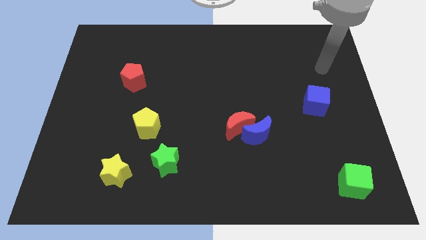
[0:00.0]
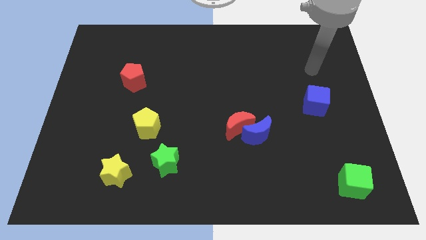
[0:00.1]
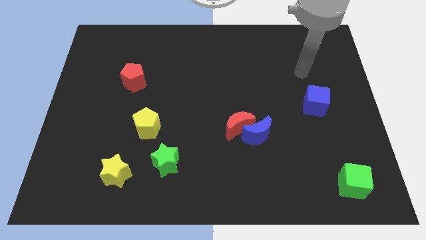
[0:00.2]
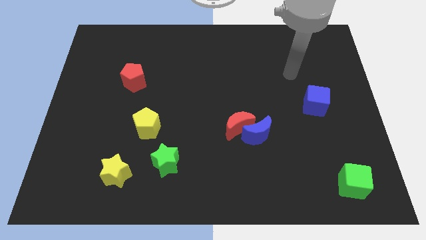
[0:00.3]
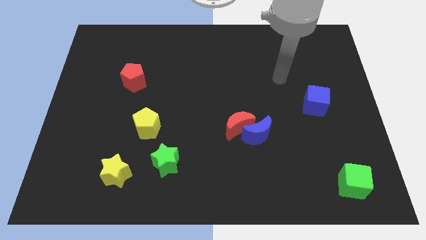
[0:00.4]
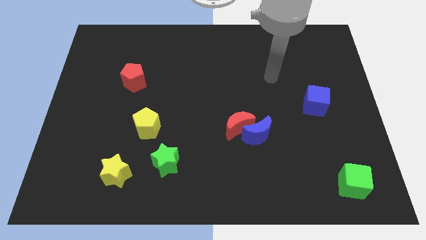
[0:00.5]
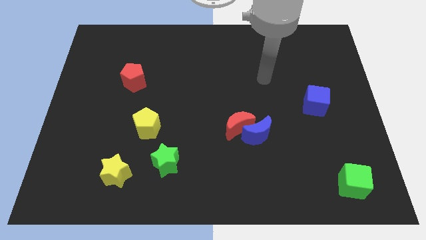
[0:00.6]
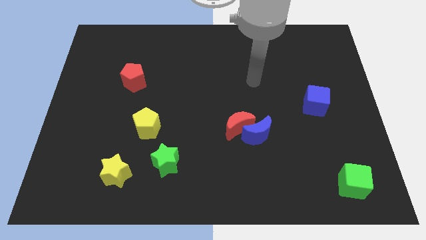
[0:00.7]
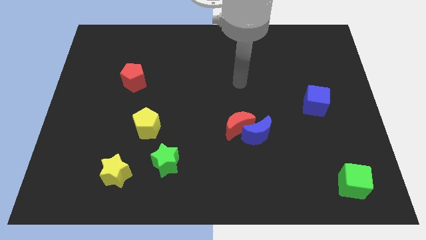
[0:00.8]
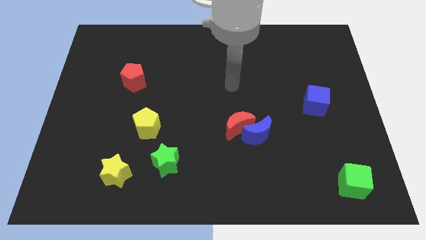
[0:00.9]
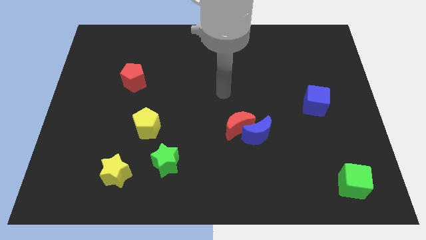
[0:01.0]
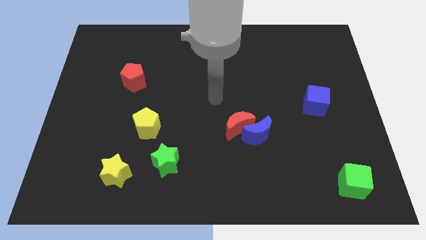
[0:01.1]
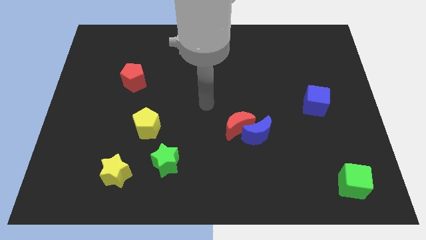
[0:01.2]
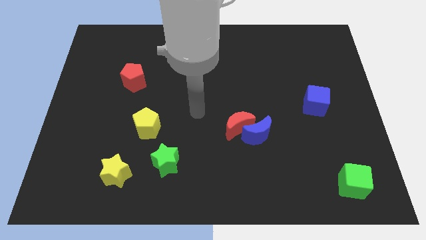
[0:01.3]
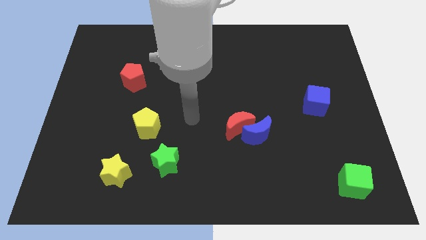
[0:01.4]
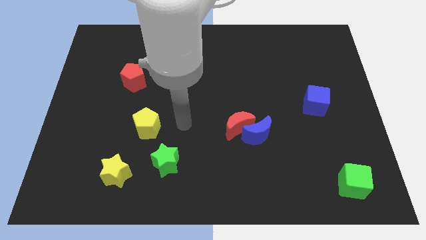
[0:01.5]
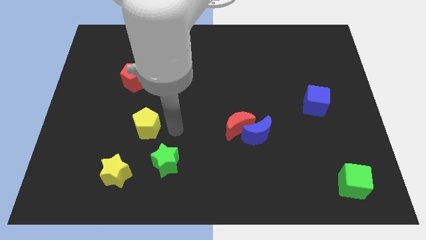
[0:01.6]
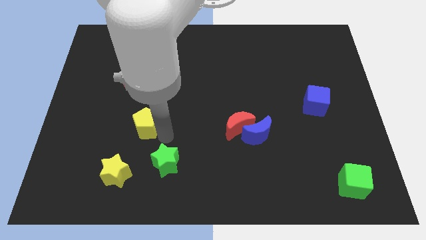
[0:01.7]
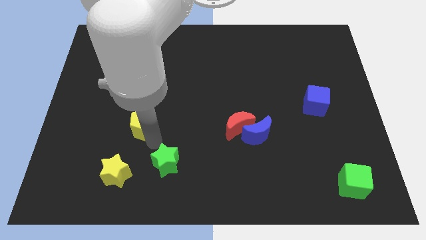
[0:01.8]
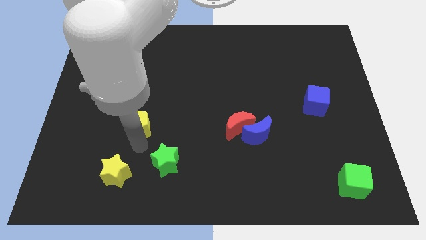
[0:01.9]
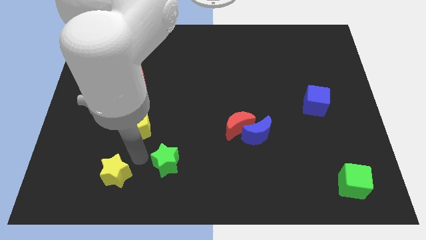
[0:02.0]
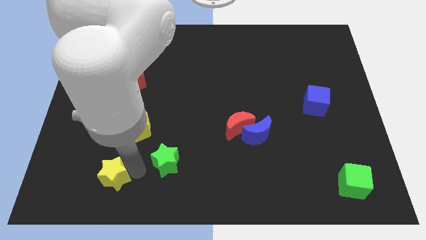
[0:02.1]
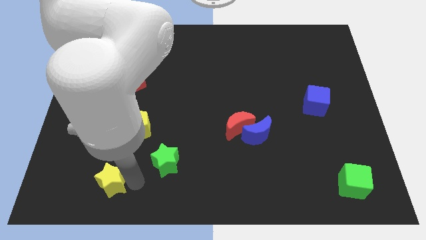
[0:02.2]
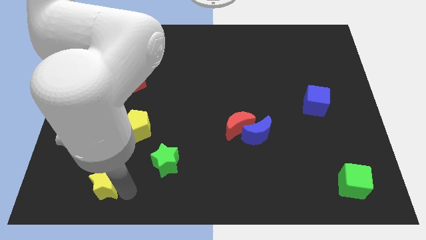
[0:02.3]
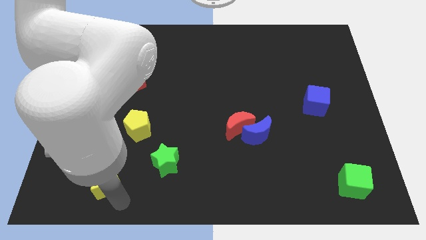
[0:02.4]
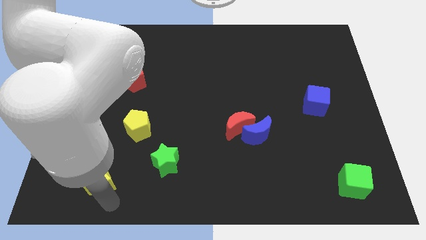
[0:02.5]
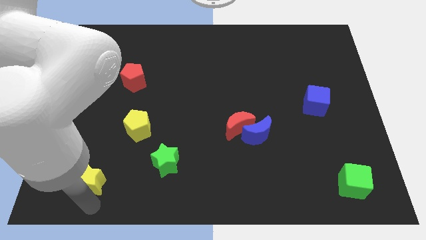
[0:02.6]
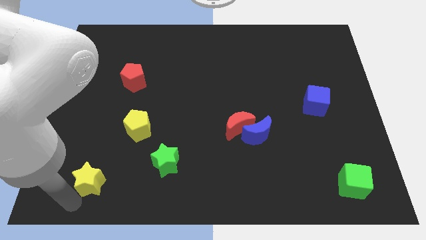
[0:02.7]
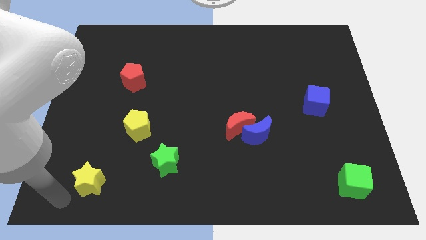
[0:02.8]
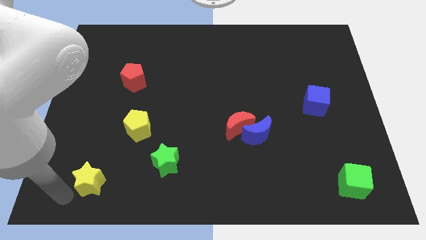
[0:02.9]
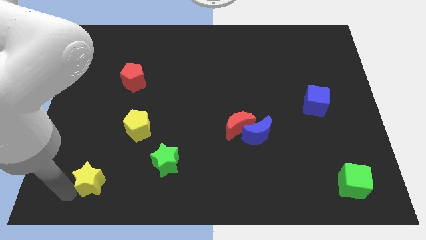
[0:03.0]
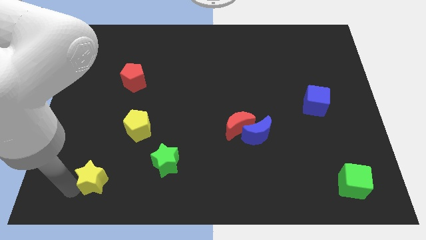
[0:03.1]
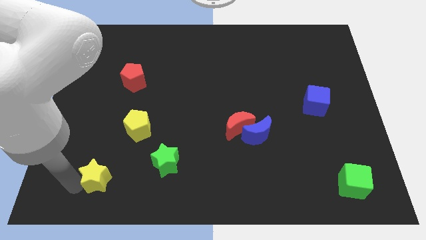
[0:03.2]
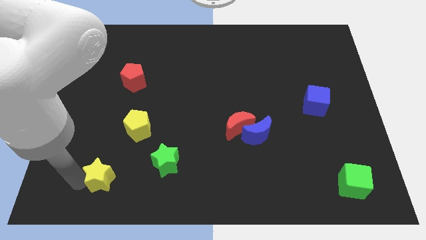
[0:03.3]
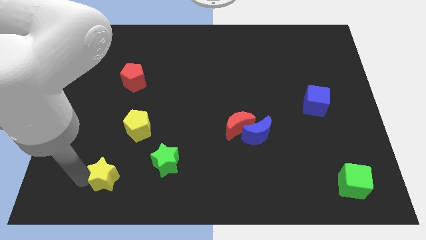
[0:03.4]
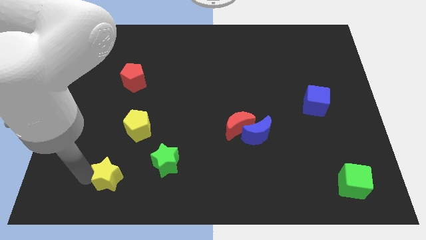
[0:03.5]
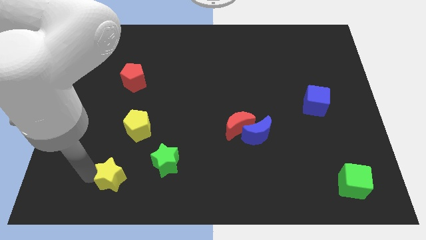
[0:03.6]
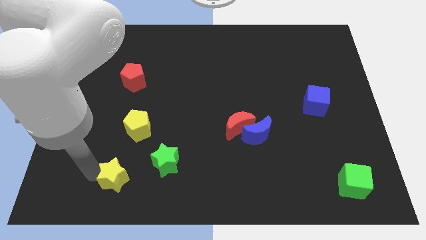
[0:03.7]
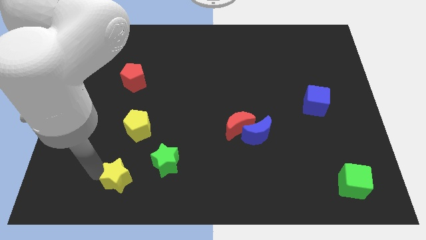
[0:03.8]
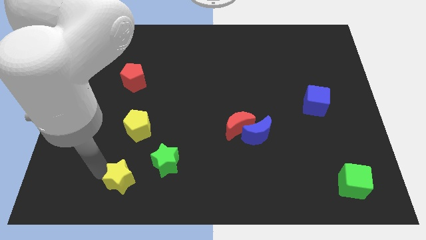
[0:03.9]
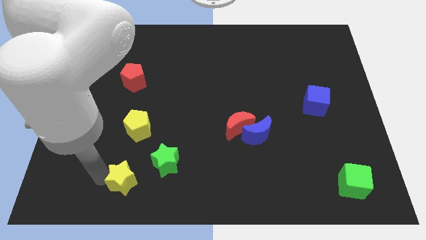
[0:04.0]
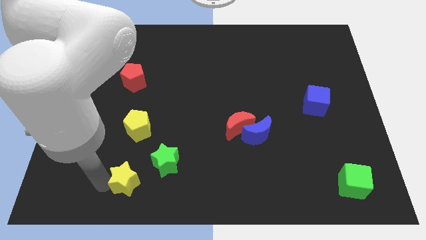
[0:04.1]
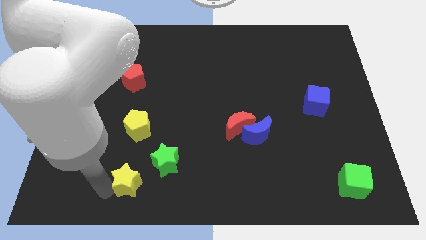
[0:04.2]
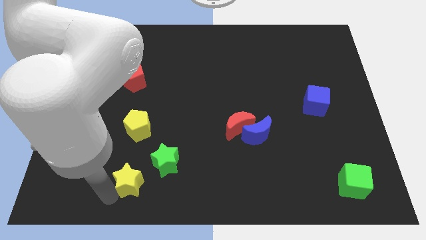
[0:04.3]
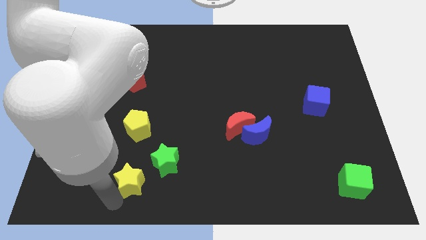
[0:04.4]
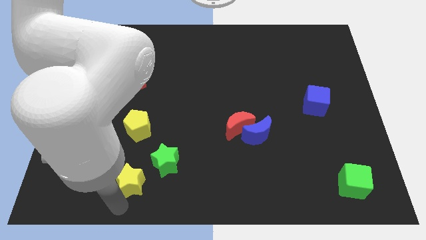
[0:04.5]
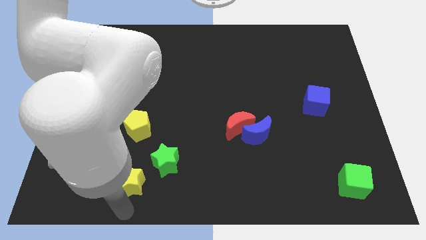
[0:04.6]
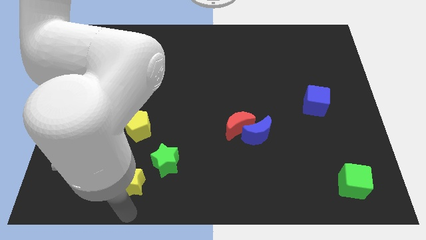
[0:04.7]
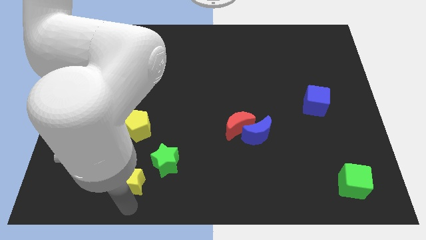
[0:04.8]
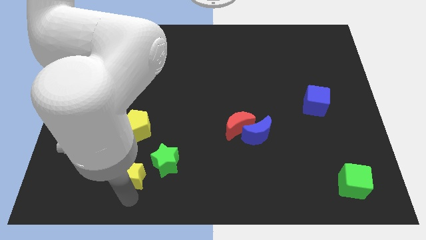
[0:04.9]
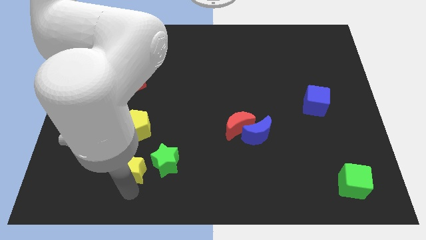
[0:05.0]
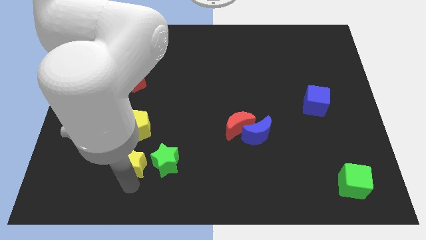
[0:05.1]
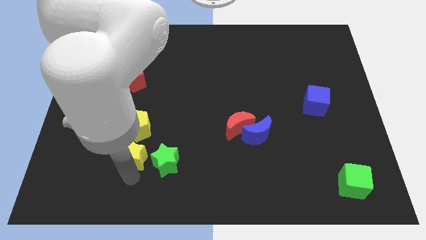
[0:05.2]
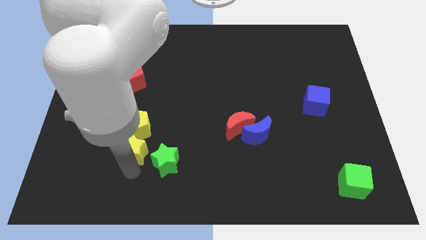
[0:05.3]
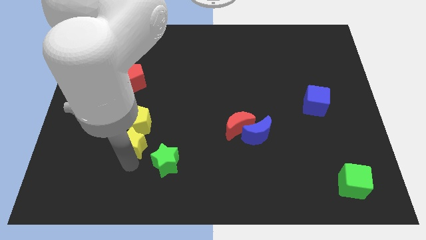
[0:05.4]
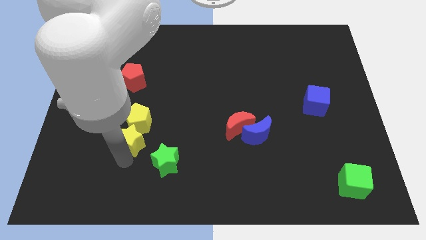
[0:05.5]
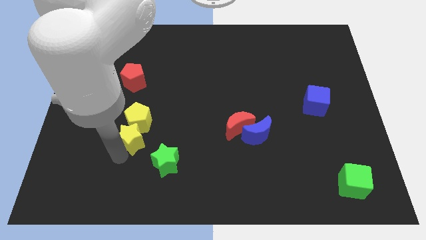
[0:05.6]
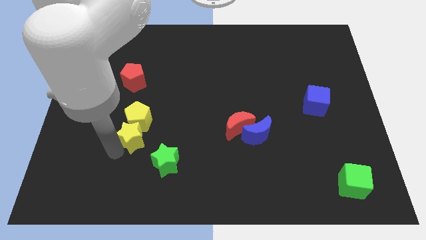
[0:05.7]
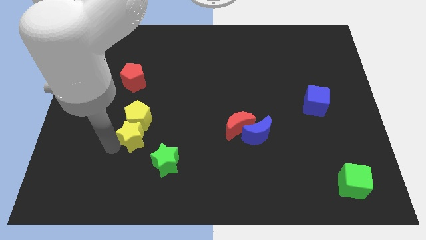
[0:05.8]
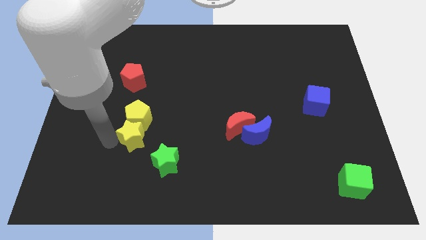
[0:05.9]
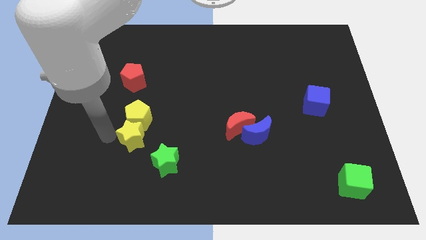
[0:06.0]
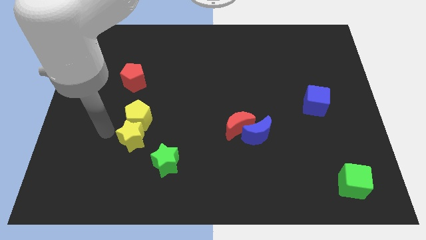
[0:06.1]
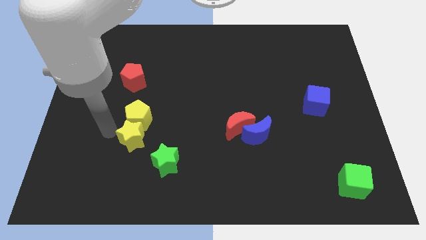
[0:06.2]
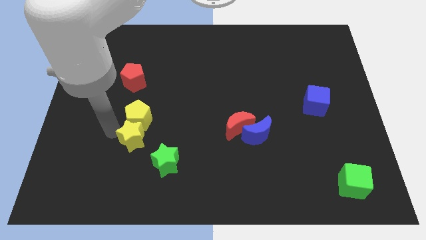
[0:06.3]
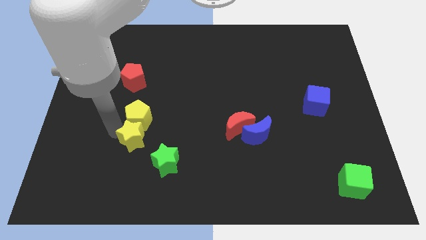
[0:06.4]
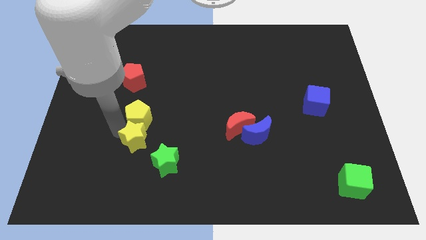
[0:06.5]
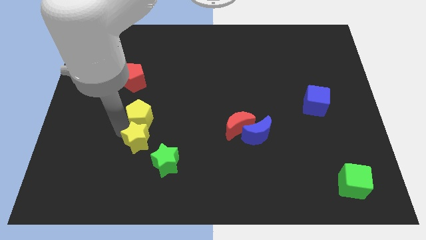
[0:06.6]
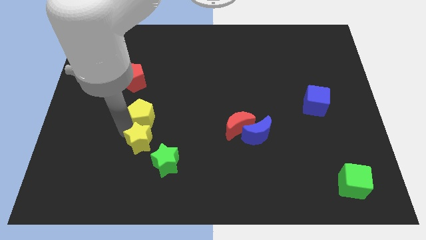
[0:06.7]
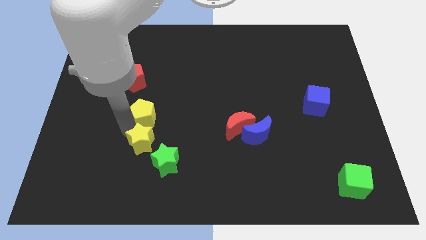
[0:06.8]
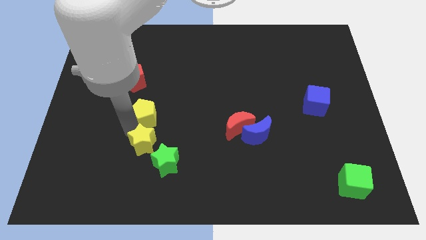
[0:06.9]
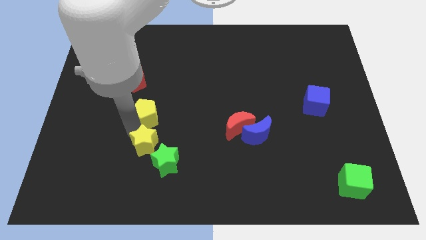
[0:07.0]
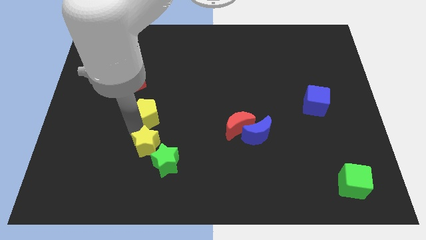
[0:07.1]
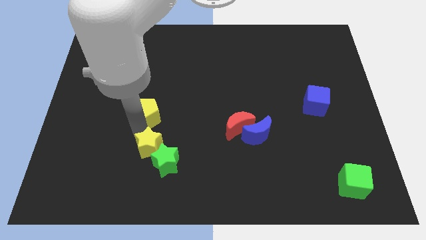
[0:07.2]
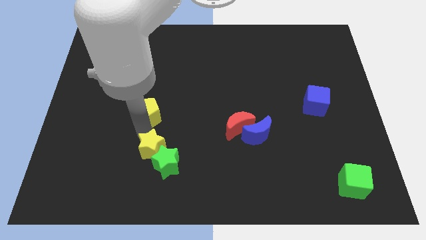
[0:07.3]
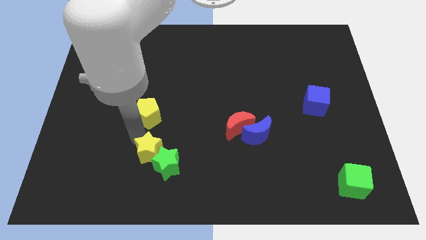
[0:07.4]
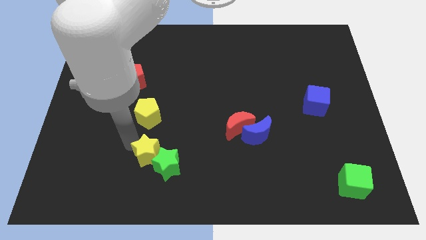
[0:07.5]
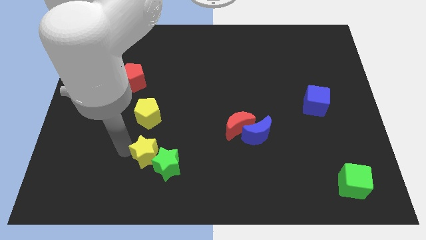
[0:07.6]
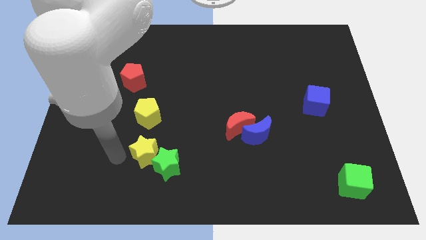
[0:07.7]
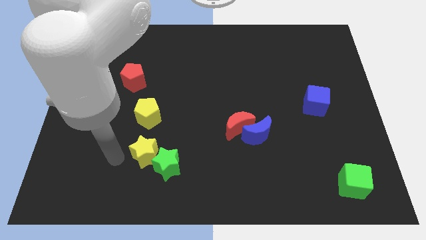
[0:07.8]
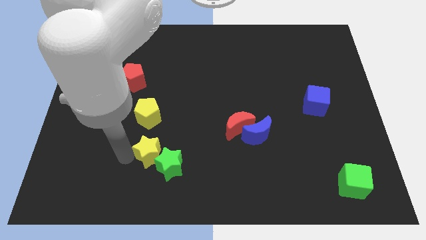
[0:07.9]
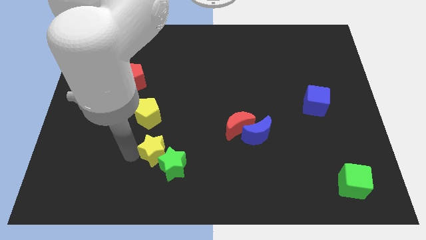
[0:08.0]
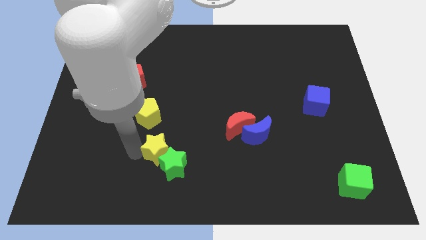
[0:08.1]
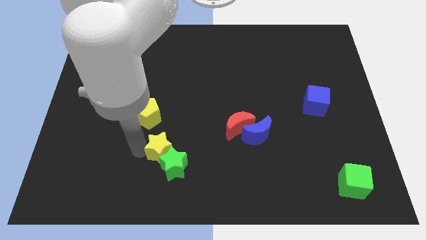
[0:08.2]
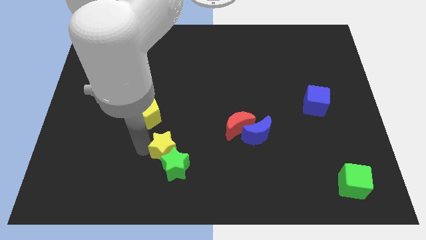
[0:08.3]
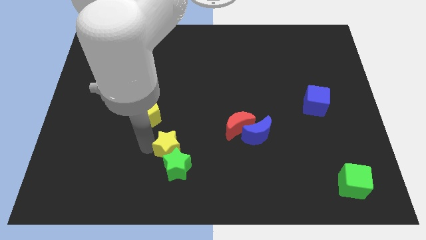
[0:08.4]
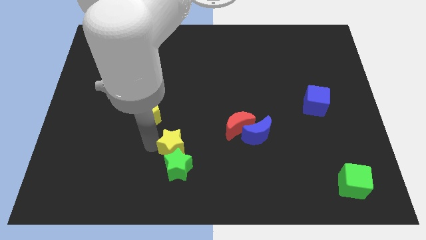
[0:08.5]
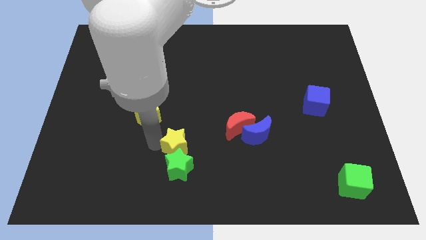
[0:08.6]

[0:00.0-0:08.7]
put the yellow star to the top right side of the green star

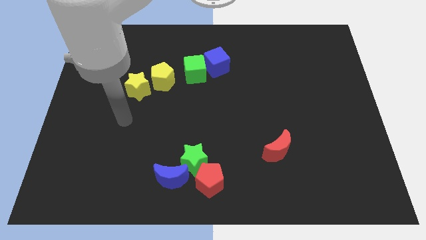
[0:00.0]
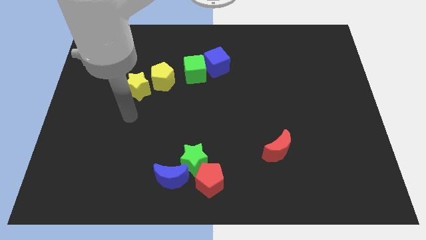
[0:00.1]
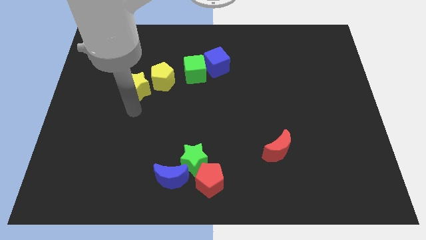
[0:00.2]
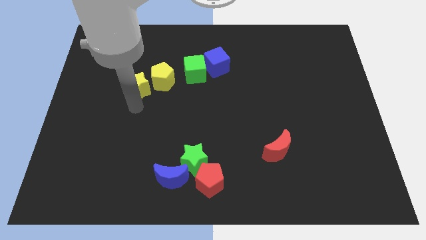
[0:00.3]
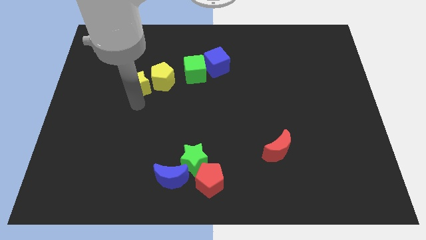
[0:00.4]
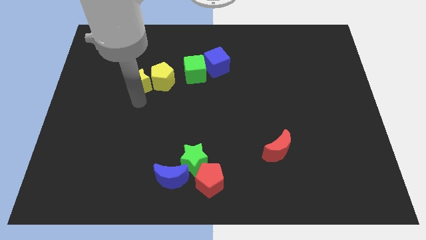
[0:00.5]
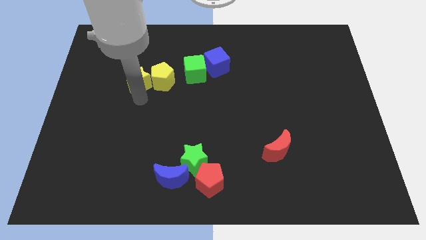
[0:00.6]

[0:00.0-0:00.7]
move the yellow star diagonally up and to the left of the yellow pentagon
